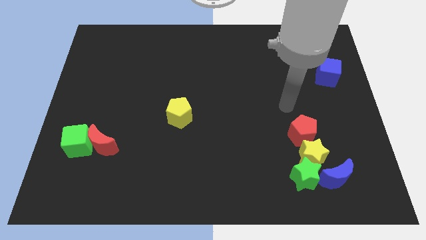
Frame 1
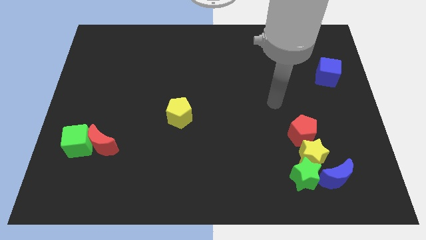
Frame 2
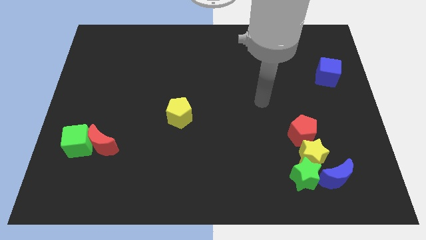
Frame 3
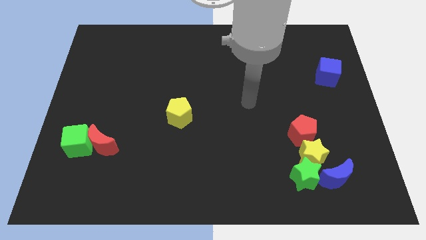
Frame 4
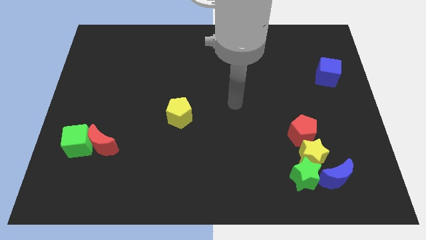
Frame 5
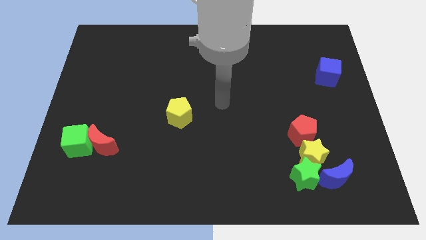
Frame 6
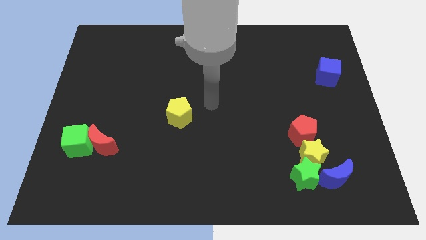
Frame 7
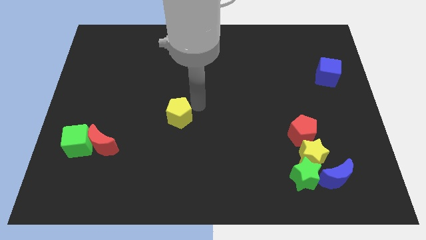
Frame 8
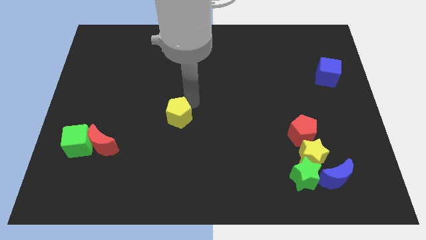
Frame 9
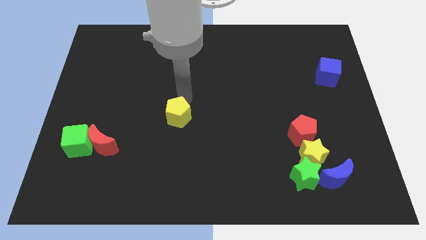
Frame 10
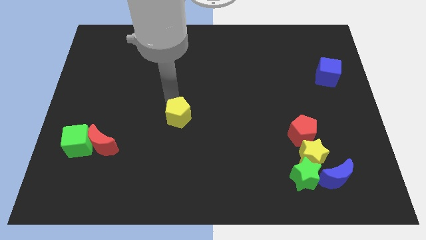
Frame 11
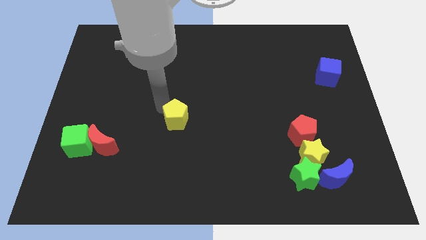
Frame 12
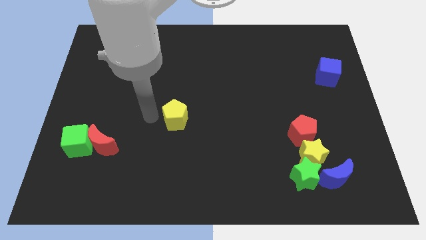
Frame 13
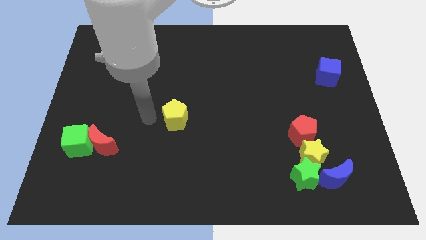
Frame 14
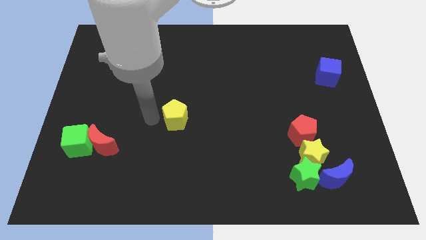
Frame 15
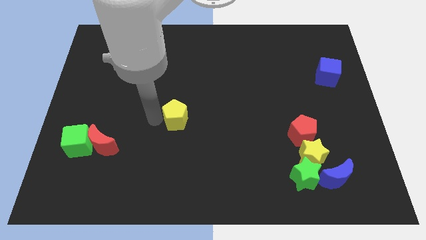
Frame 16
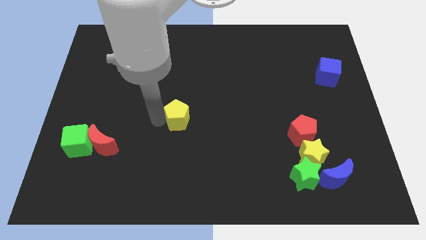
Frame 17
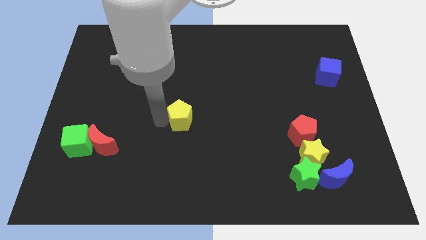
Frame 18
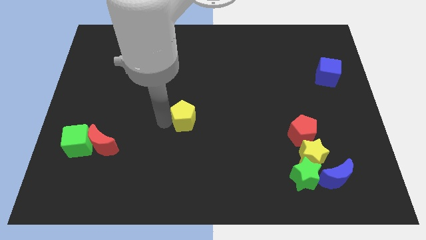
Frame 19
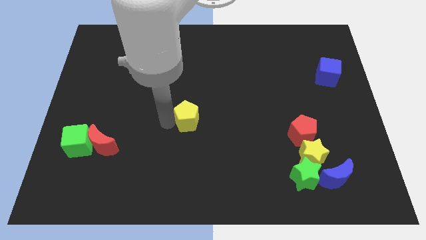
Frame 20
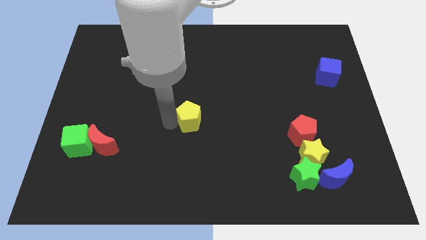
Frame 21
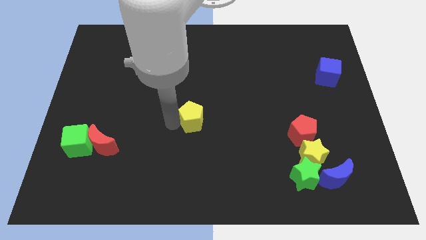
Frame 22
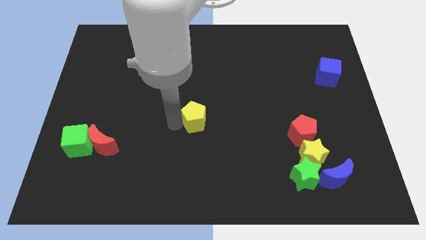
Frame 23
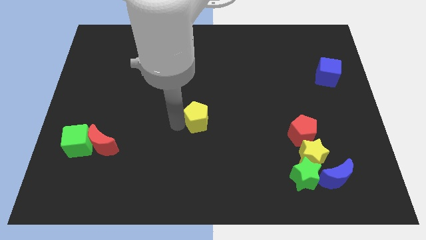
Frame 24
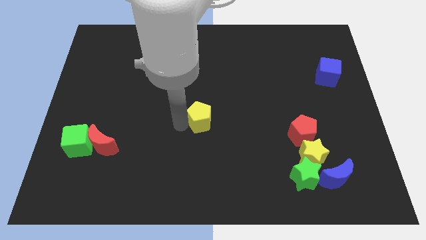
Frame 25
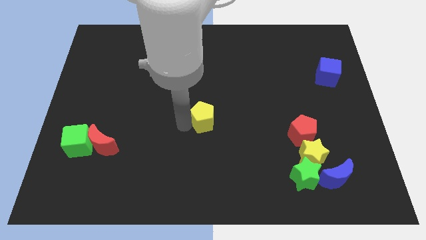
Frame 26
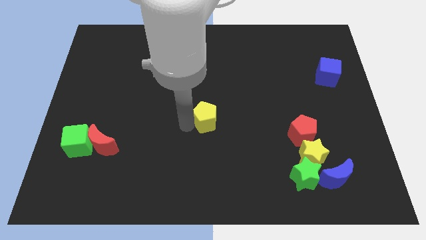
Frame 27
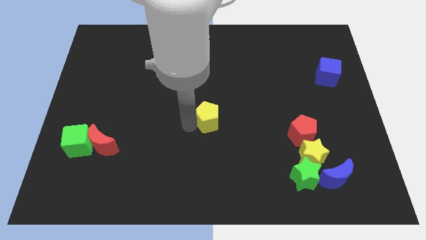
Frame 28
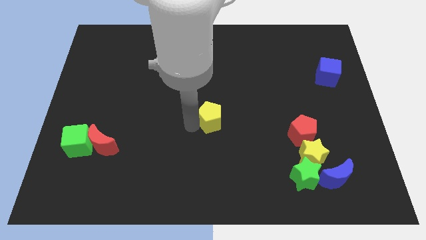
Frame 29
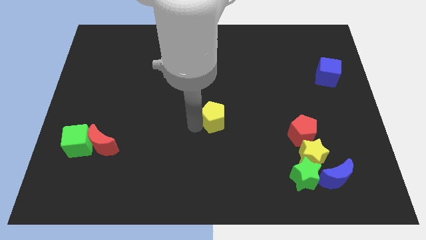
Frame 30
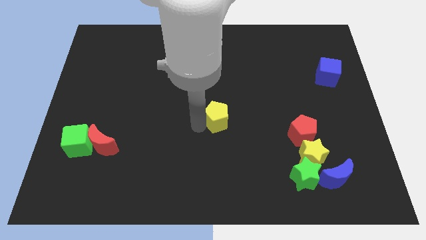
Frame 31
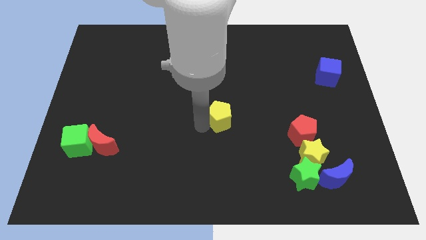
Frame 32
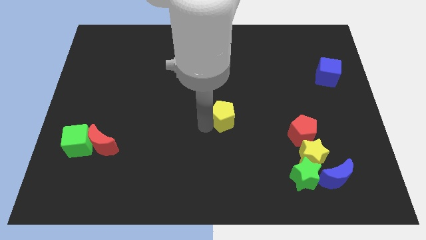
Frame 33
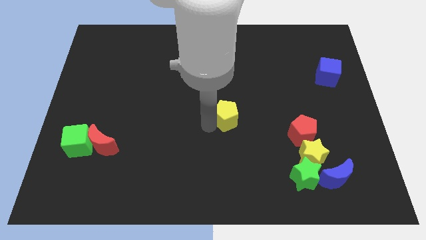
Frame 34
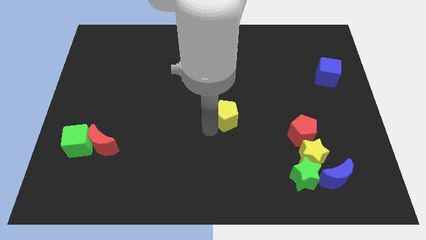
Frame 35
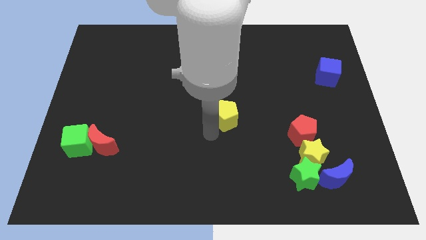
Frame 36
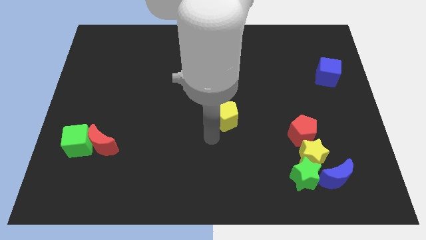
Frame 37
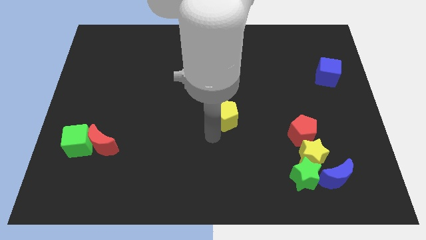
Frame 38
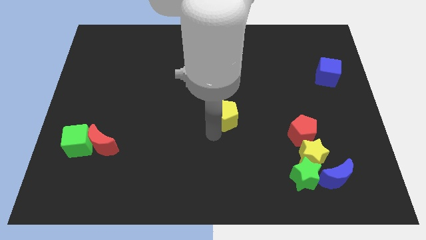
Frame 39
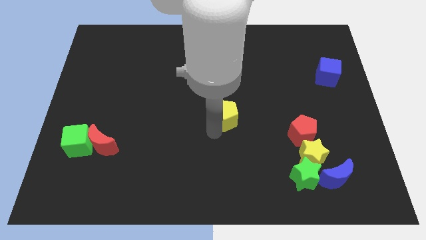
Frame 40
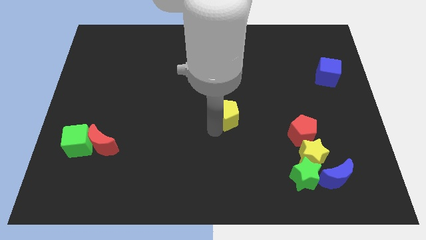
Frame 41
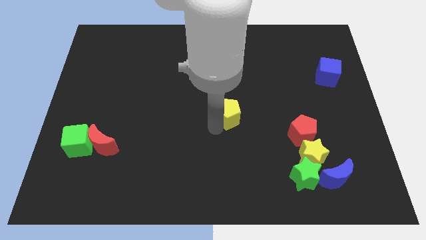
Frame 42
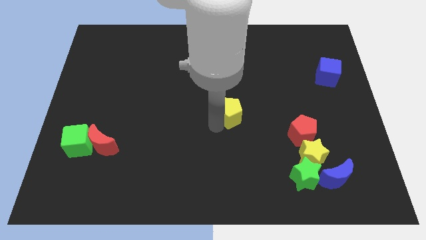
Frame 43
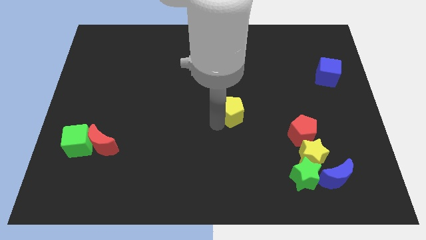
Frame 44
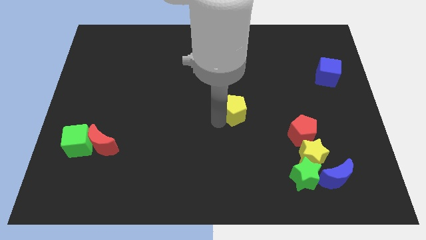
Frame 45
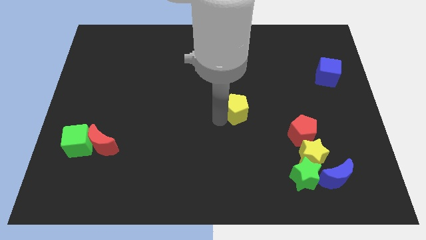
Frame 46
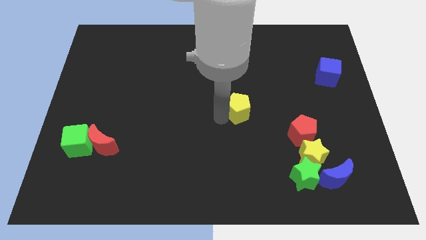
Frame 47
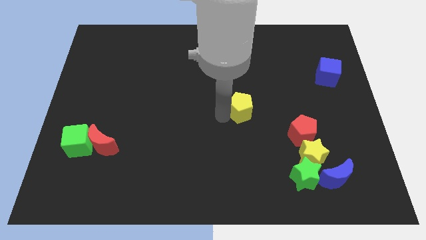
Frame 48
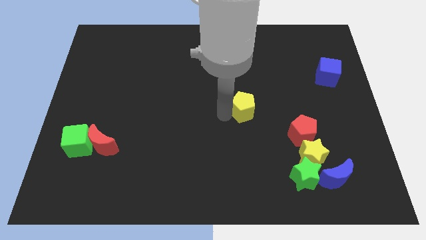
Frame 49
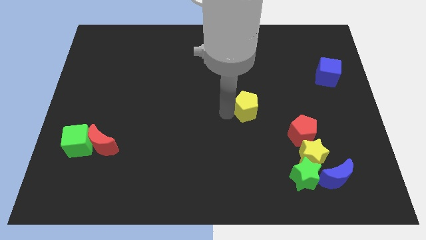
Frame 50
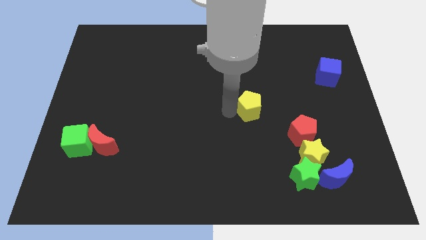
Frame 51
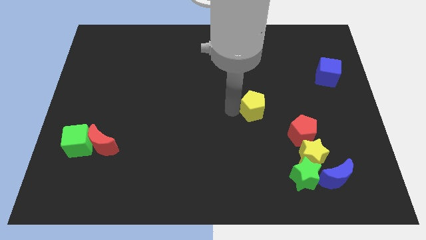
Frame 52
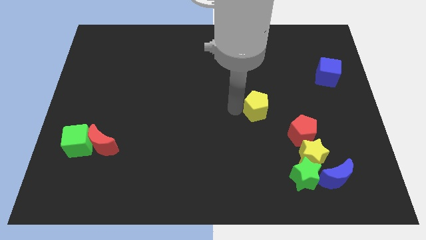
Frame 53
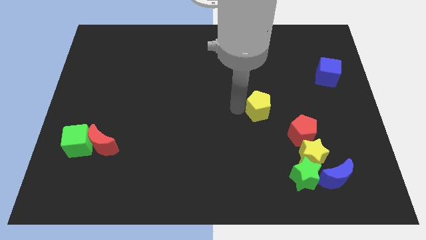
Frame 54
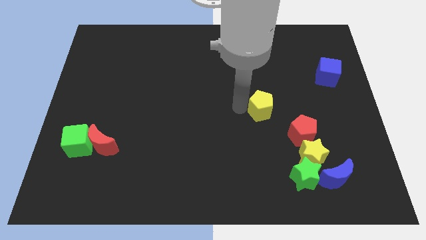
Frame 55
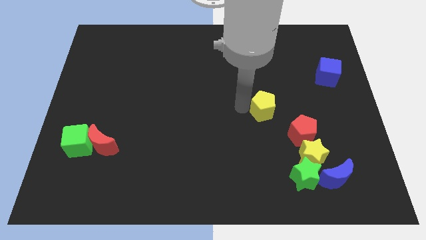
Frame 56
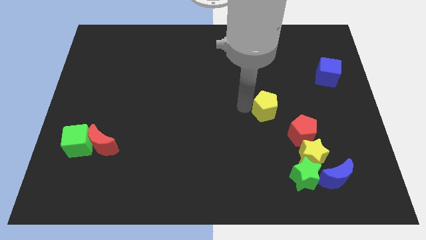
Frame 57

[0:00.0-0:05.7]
move the yellow pentagon right

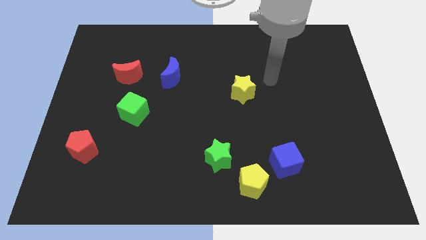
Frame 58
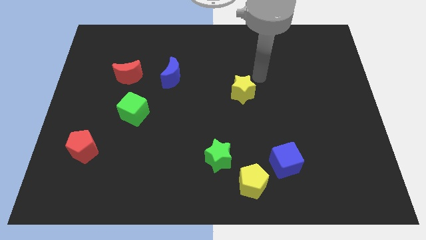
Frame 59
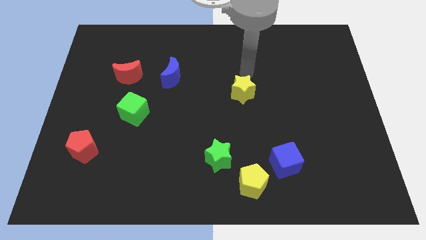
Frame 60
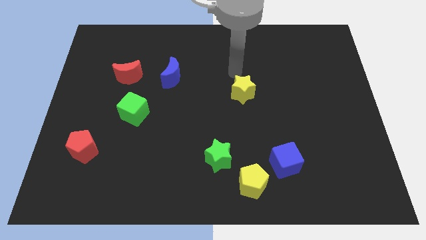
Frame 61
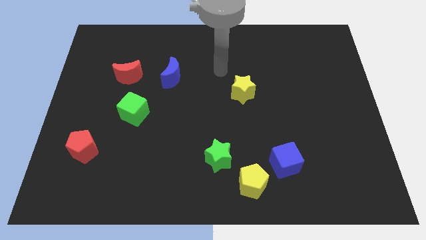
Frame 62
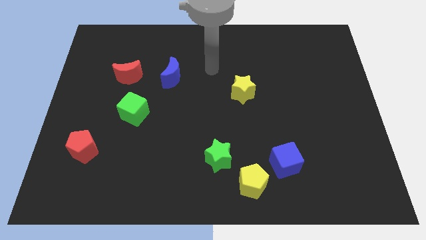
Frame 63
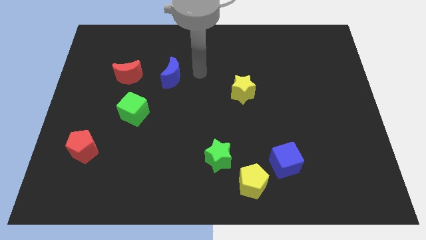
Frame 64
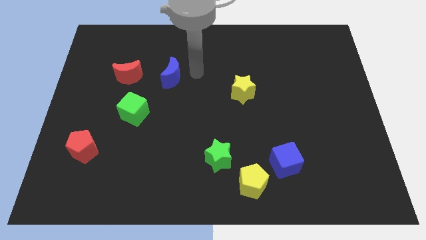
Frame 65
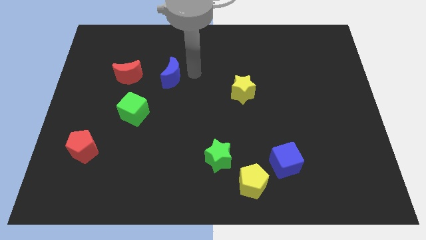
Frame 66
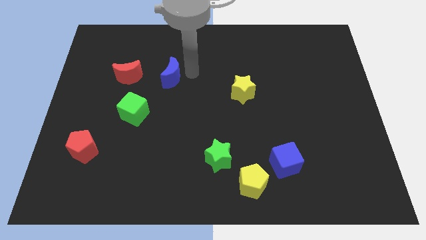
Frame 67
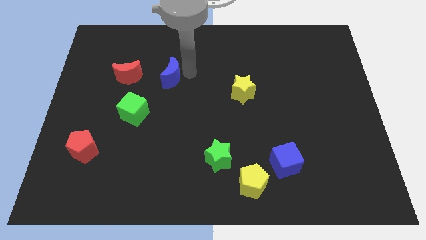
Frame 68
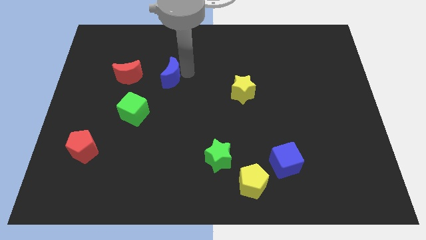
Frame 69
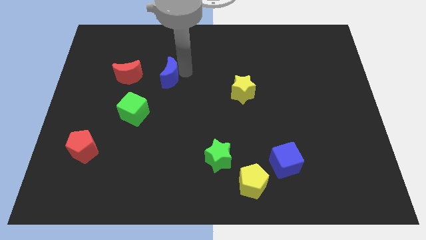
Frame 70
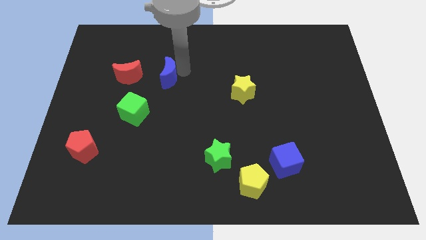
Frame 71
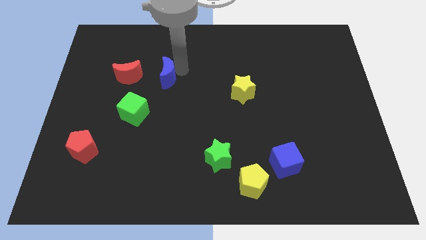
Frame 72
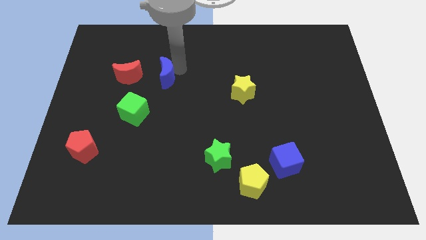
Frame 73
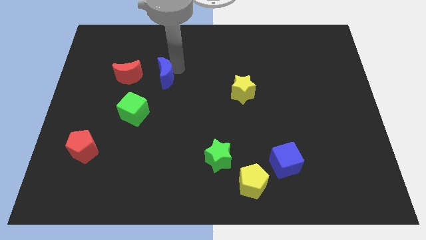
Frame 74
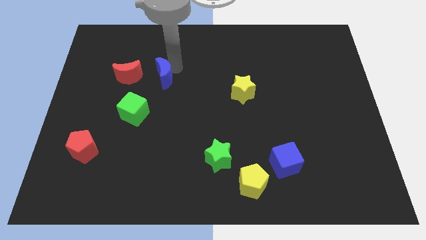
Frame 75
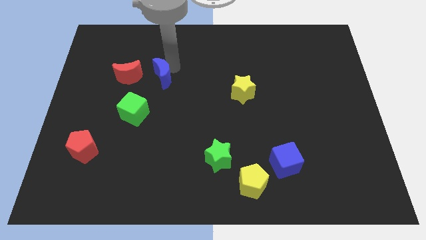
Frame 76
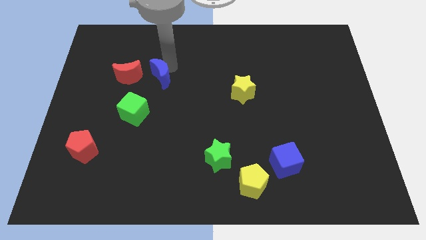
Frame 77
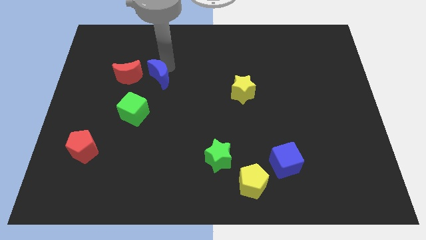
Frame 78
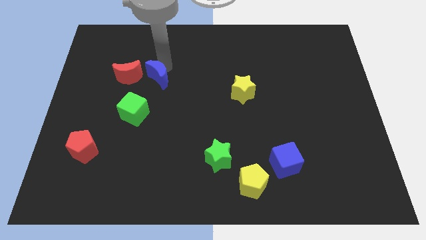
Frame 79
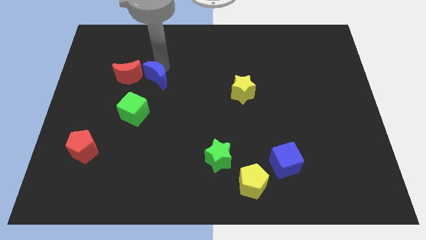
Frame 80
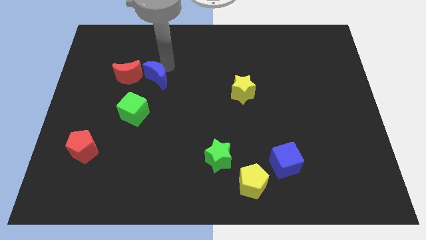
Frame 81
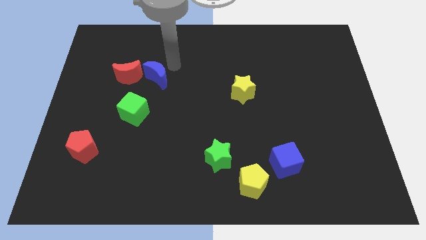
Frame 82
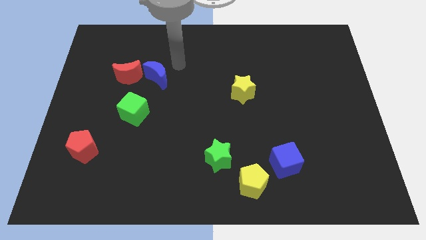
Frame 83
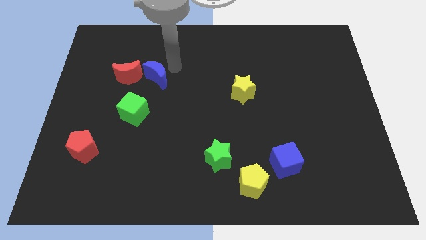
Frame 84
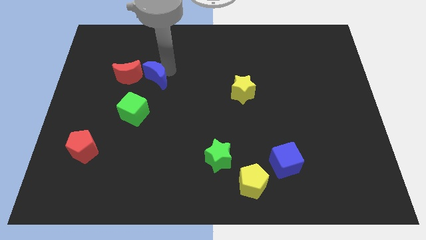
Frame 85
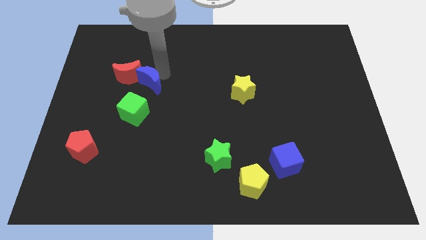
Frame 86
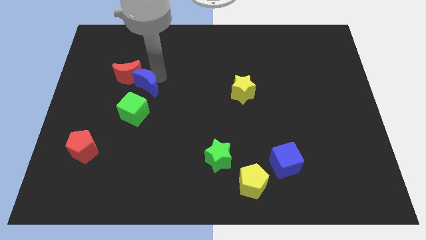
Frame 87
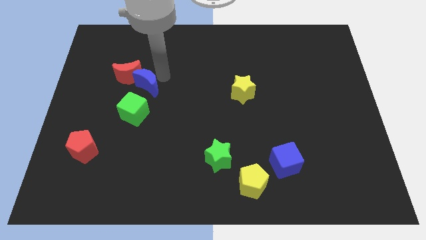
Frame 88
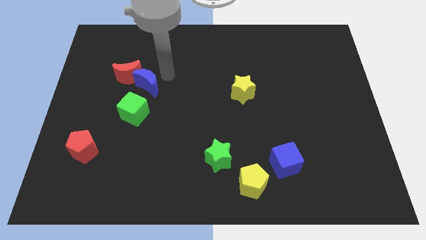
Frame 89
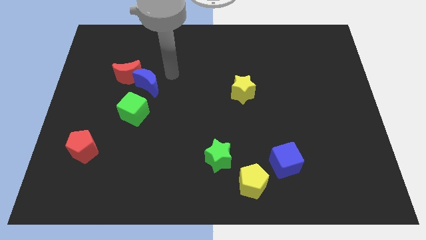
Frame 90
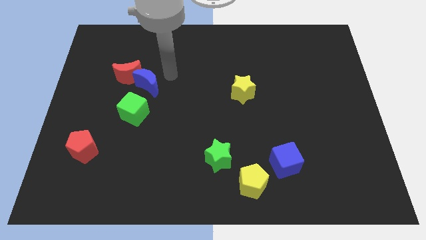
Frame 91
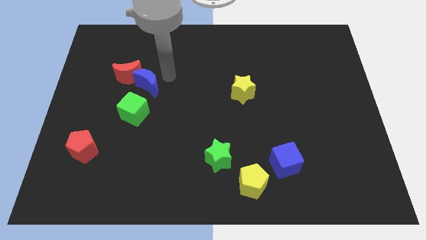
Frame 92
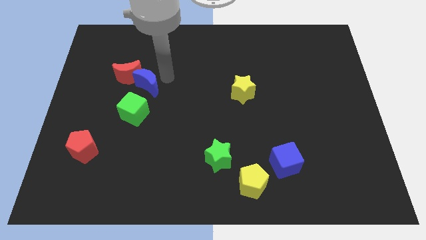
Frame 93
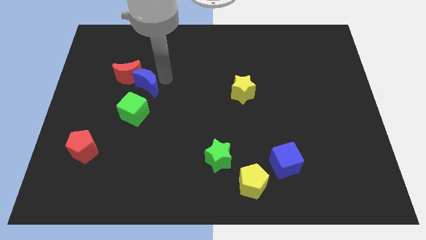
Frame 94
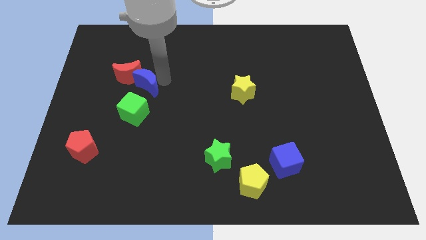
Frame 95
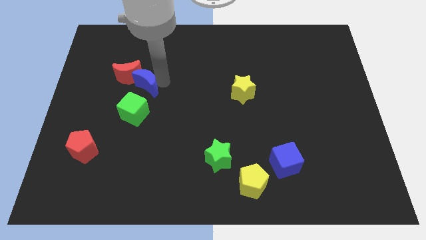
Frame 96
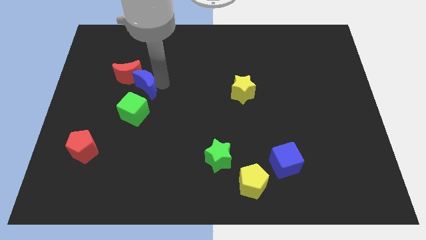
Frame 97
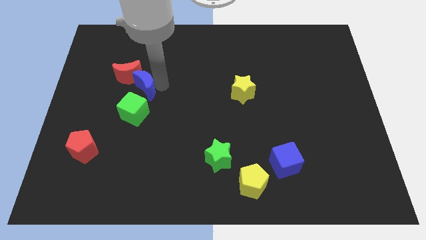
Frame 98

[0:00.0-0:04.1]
slide the blue moon somewhat downwards and then left
